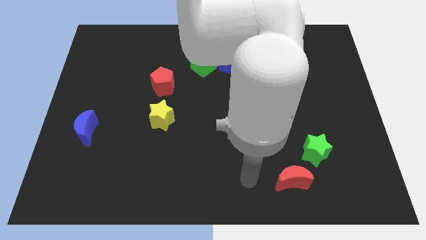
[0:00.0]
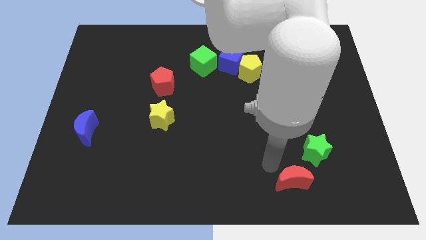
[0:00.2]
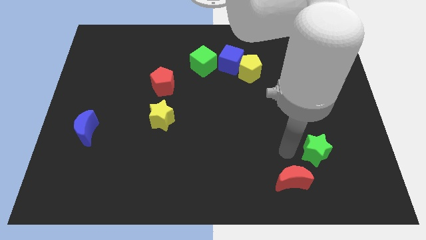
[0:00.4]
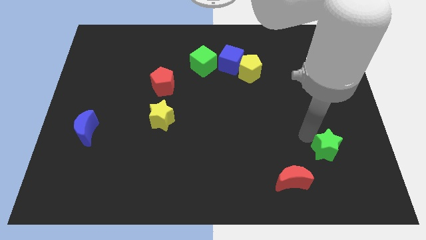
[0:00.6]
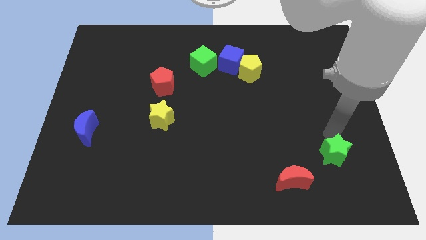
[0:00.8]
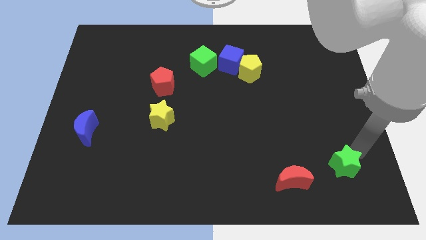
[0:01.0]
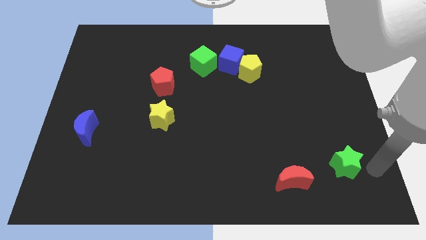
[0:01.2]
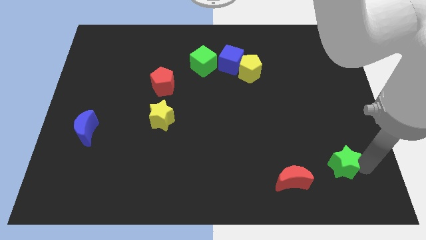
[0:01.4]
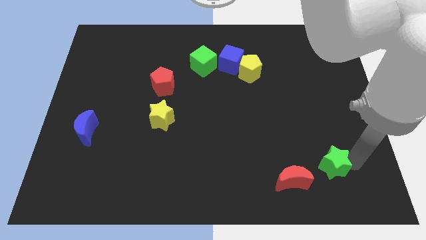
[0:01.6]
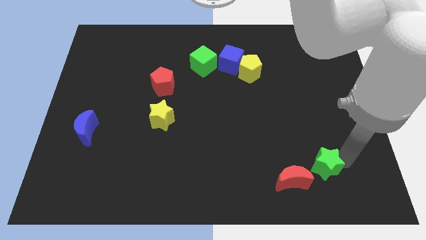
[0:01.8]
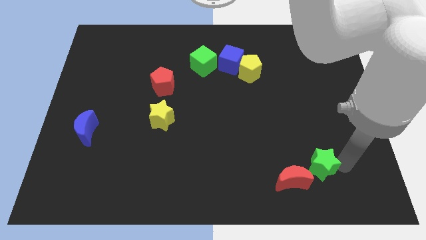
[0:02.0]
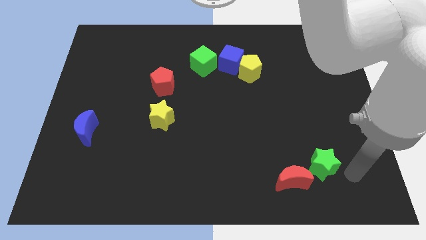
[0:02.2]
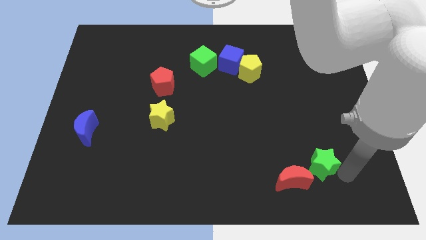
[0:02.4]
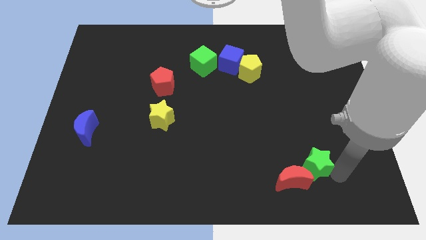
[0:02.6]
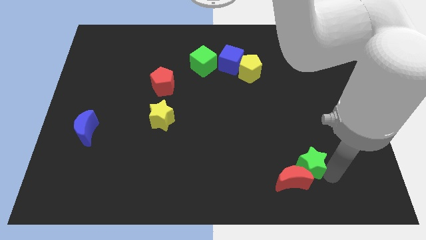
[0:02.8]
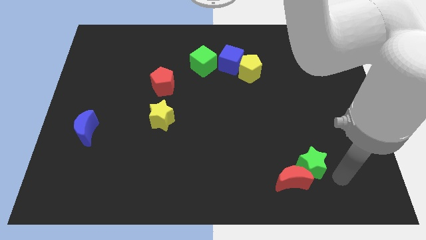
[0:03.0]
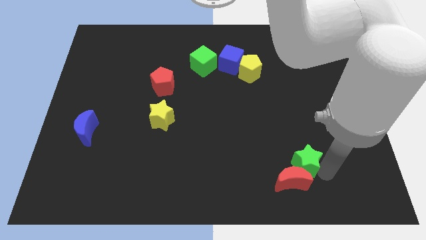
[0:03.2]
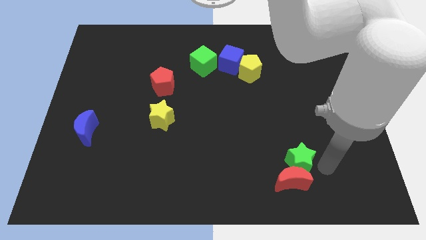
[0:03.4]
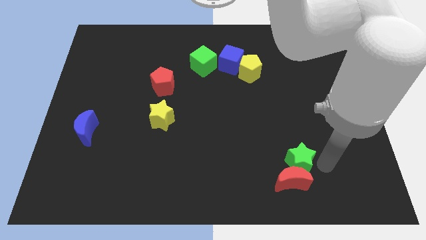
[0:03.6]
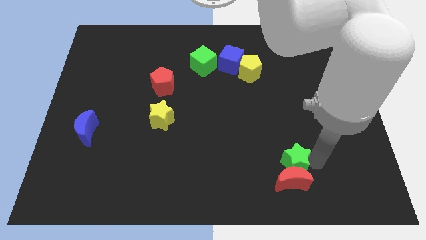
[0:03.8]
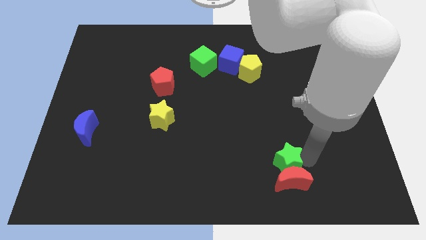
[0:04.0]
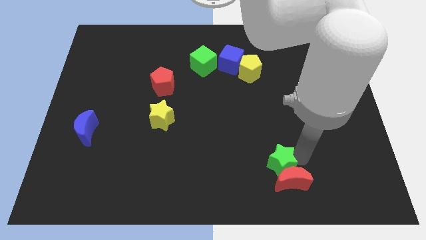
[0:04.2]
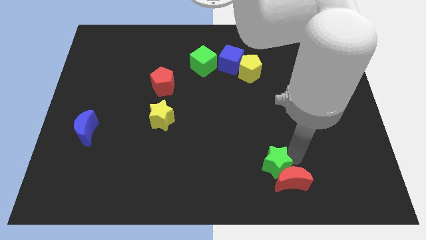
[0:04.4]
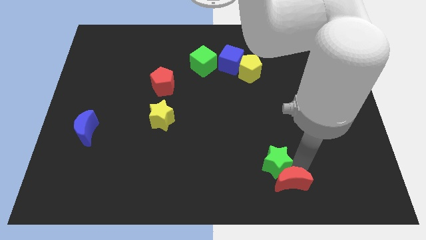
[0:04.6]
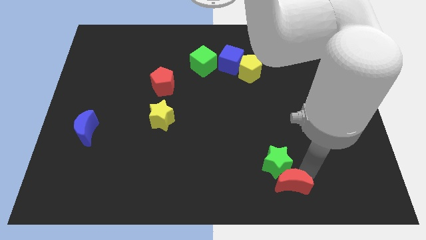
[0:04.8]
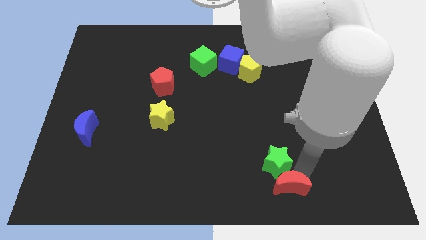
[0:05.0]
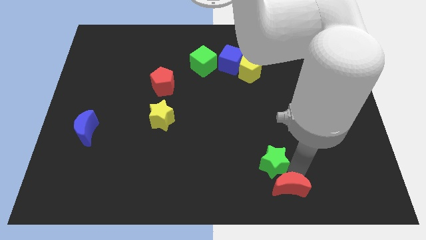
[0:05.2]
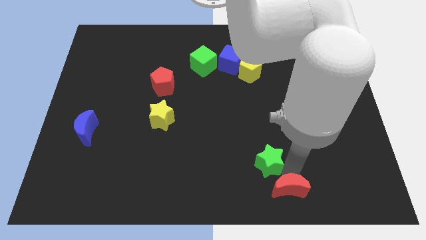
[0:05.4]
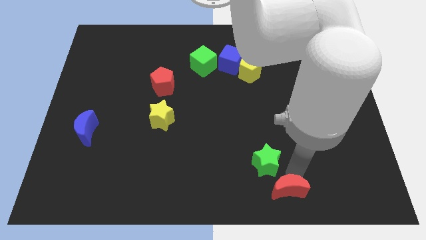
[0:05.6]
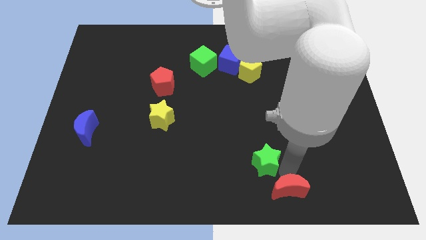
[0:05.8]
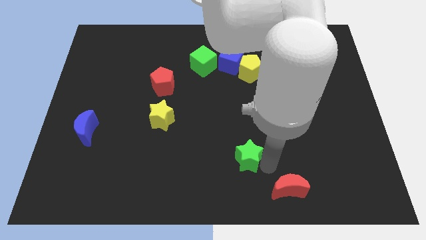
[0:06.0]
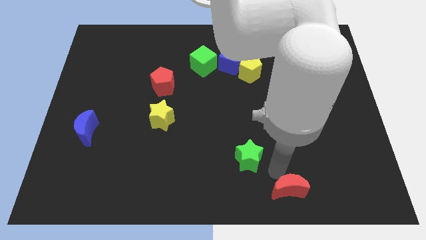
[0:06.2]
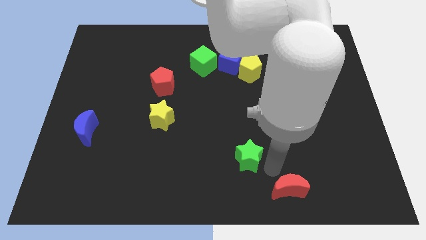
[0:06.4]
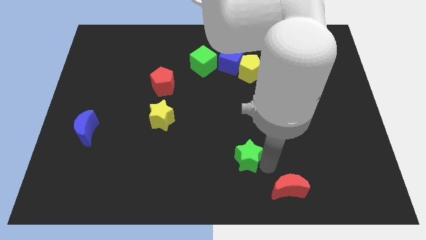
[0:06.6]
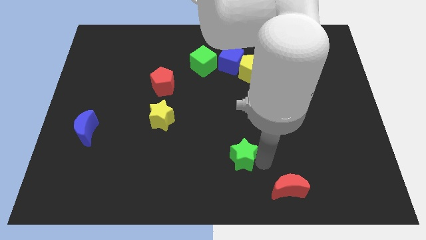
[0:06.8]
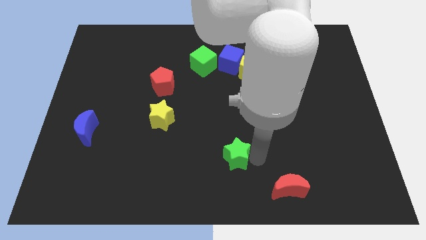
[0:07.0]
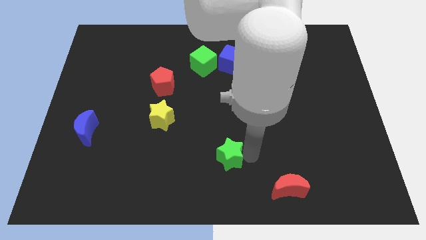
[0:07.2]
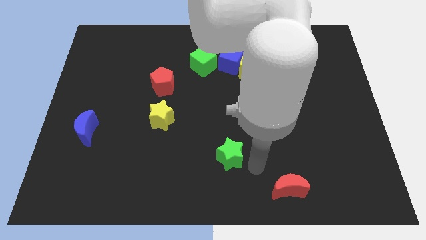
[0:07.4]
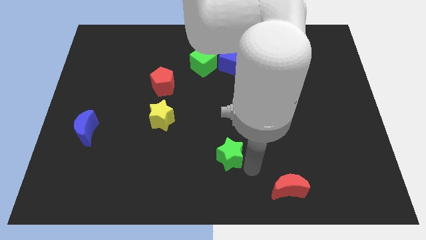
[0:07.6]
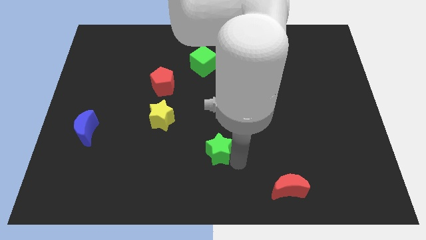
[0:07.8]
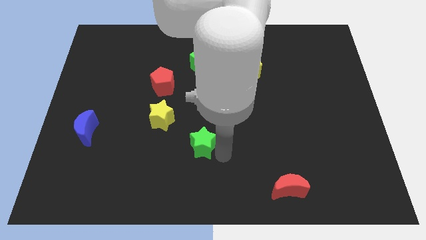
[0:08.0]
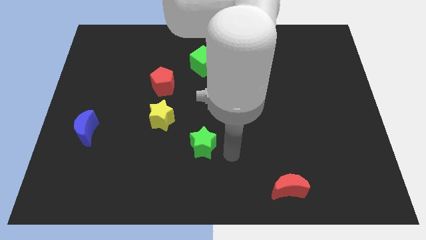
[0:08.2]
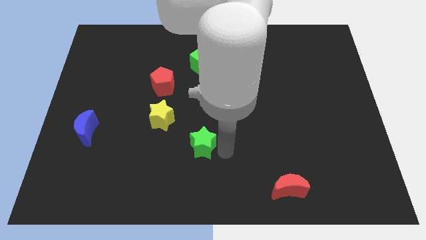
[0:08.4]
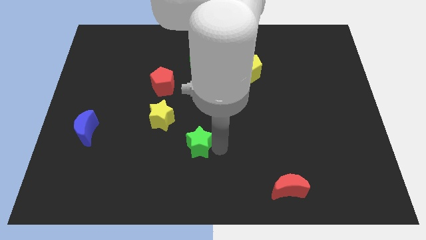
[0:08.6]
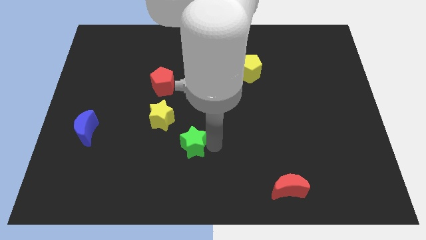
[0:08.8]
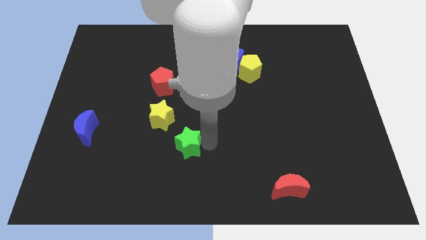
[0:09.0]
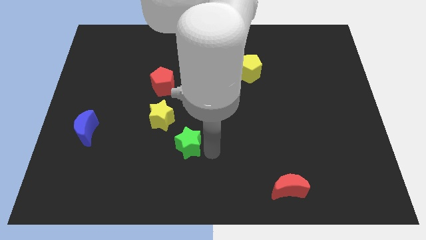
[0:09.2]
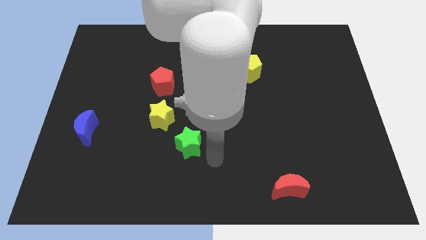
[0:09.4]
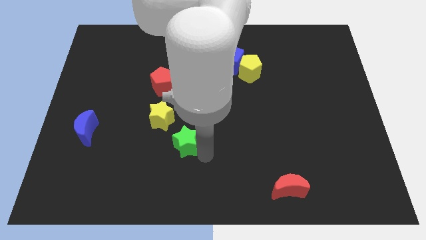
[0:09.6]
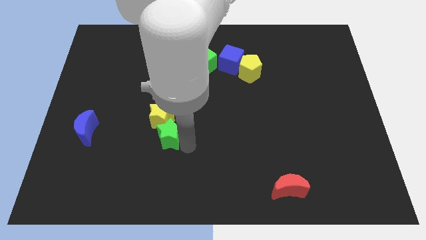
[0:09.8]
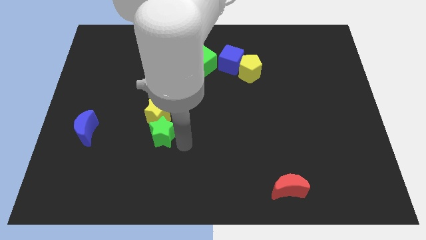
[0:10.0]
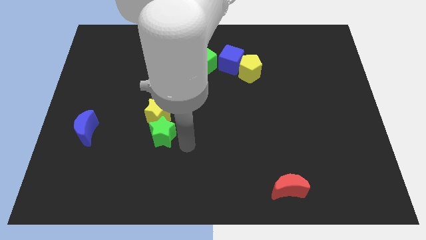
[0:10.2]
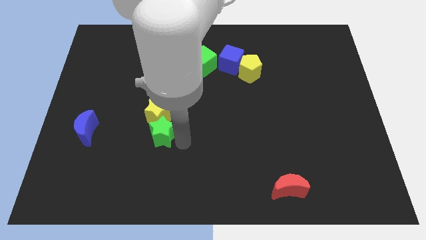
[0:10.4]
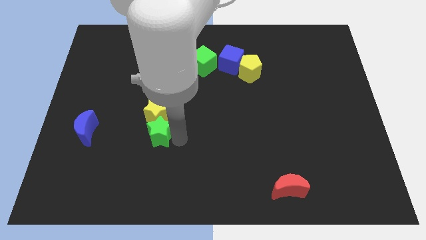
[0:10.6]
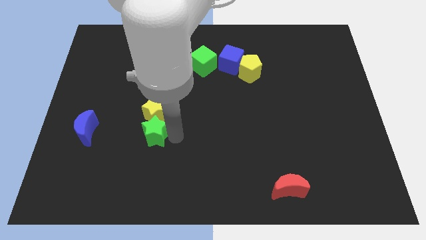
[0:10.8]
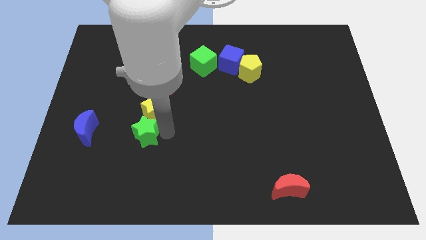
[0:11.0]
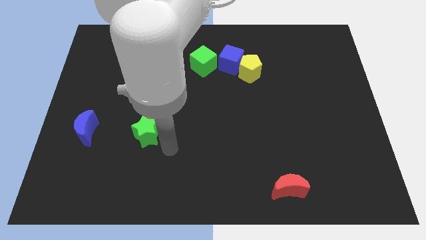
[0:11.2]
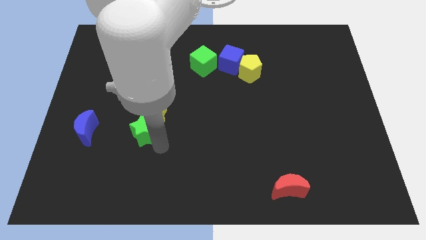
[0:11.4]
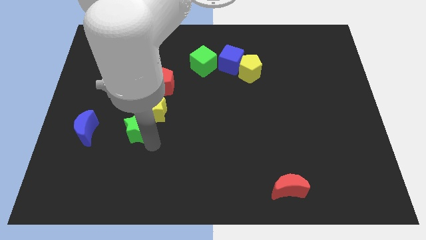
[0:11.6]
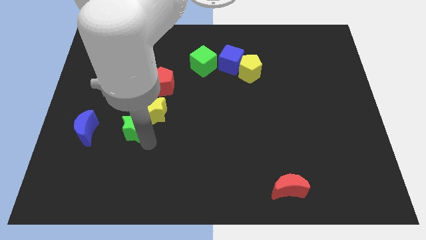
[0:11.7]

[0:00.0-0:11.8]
slide the green star to the left of the yellow star

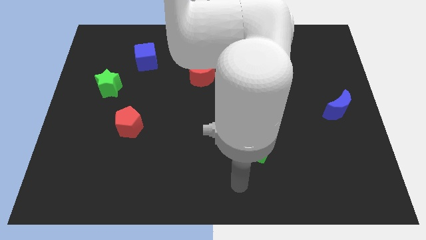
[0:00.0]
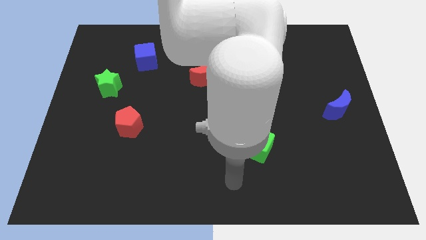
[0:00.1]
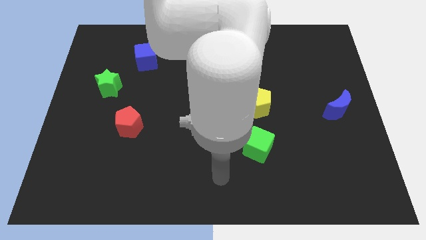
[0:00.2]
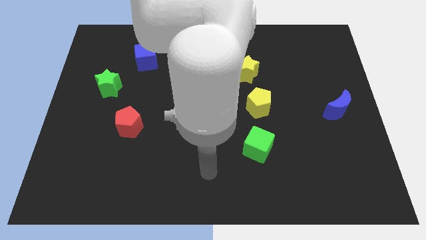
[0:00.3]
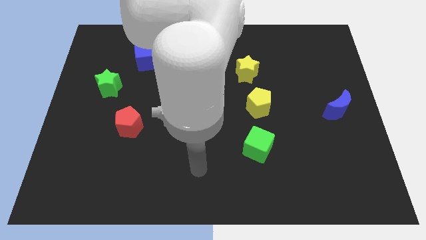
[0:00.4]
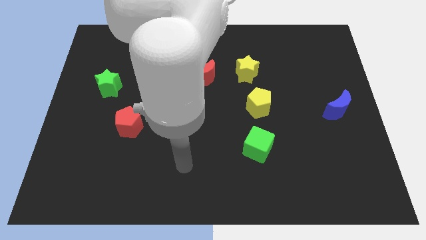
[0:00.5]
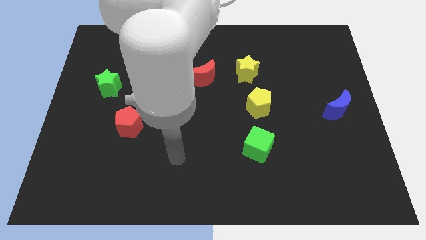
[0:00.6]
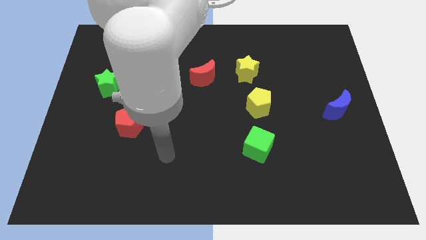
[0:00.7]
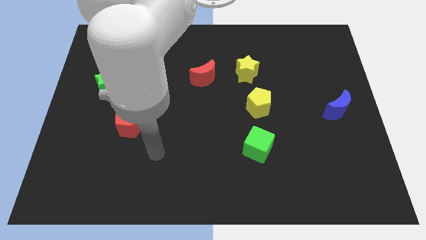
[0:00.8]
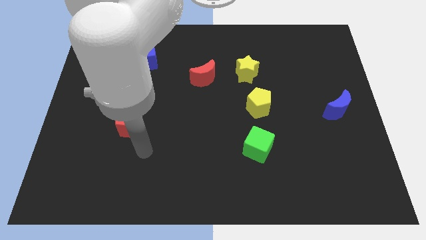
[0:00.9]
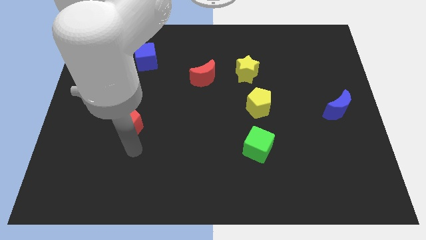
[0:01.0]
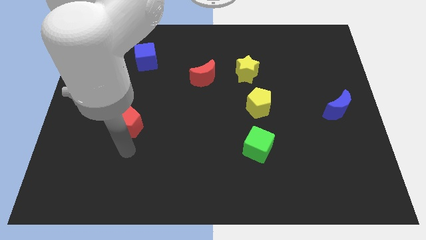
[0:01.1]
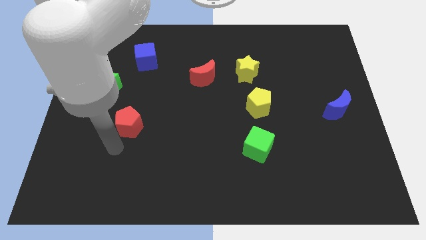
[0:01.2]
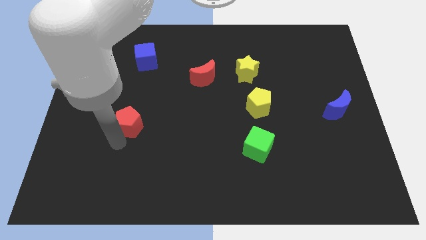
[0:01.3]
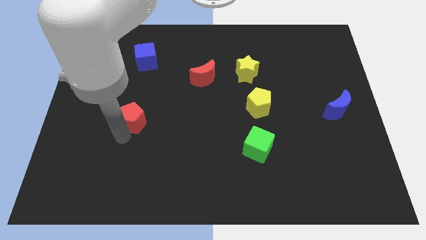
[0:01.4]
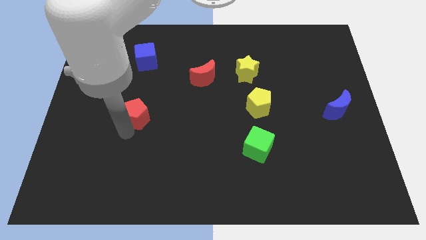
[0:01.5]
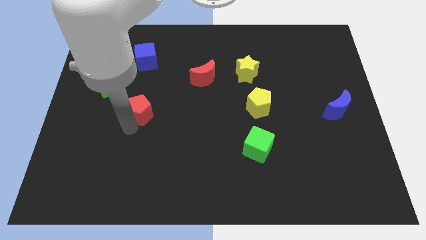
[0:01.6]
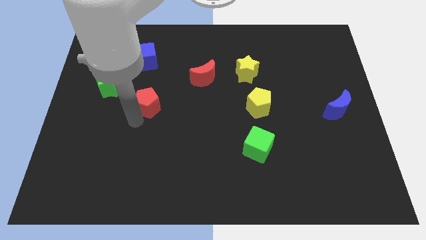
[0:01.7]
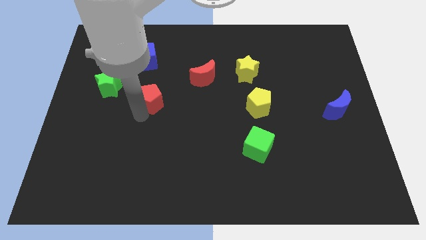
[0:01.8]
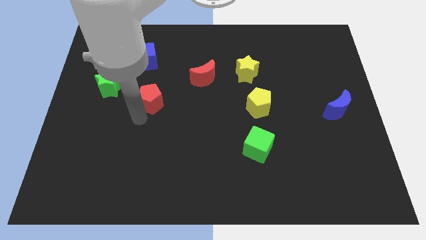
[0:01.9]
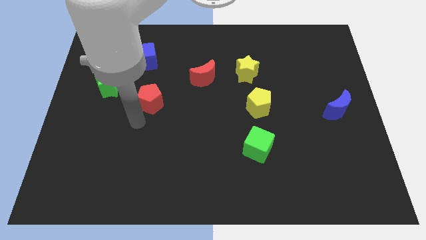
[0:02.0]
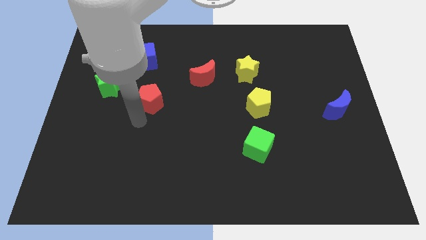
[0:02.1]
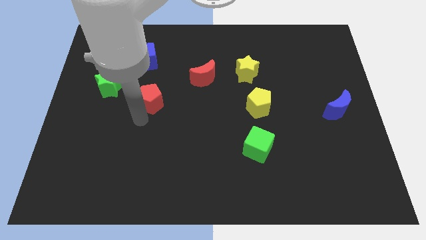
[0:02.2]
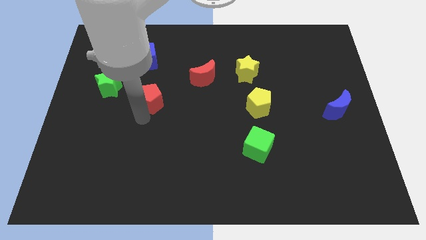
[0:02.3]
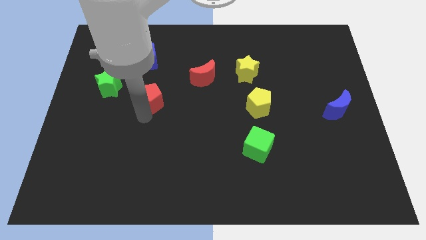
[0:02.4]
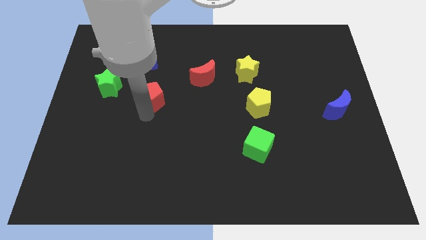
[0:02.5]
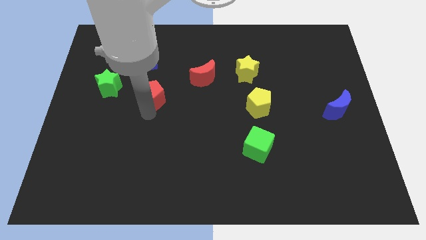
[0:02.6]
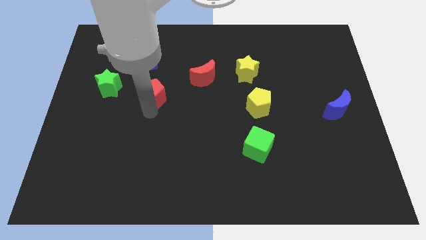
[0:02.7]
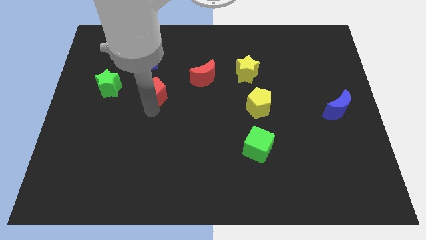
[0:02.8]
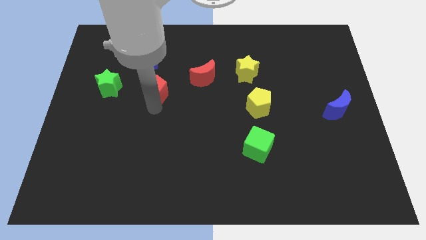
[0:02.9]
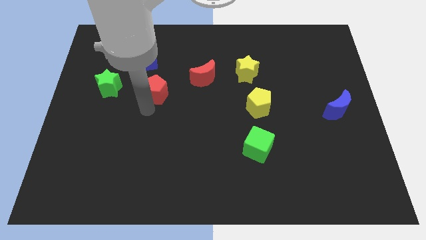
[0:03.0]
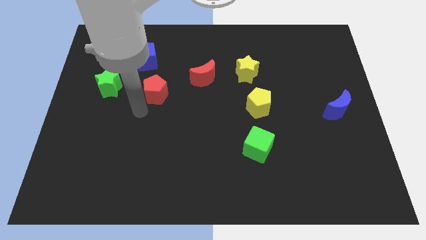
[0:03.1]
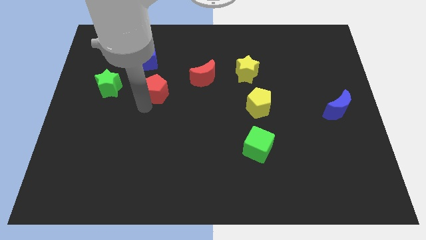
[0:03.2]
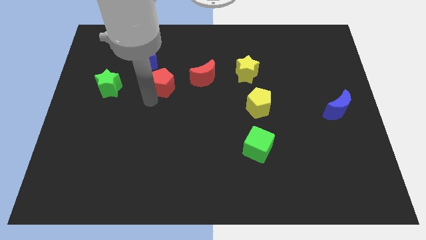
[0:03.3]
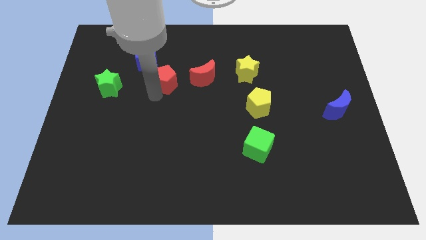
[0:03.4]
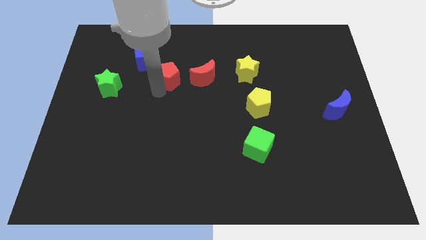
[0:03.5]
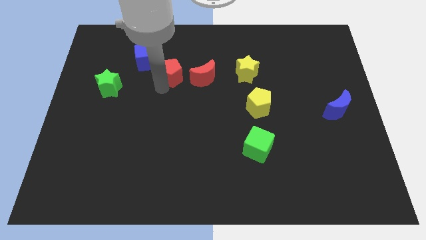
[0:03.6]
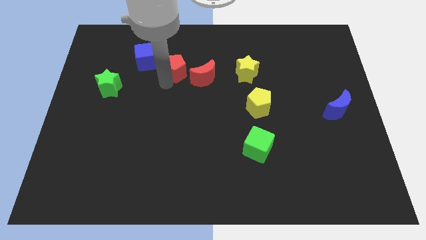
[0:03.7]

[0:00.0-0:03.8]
move the red pentagon diagonally up and to the left of the red moon
